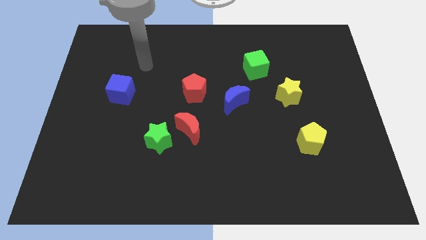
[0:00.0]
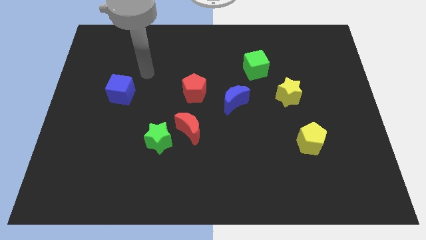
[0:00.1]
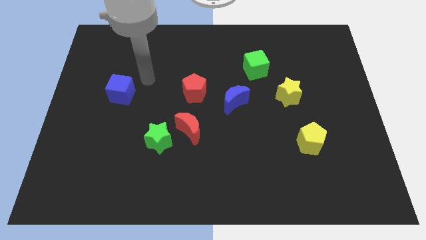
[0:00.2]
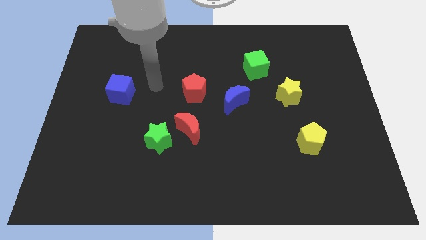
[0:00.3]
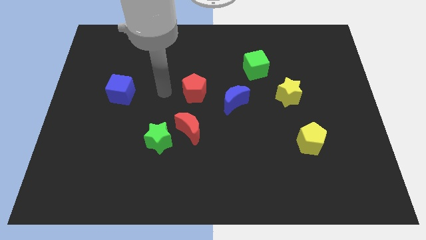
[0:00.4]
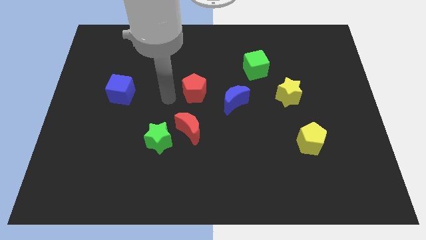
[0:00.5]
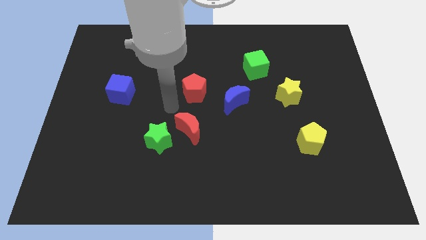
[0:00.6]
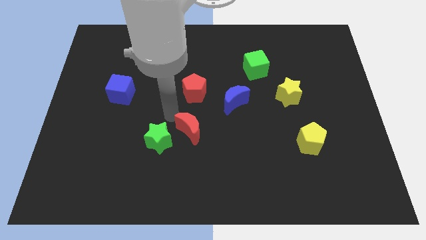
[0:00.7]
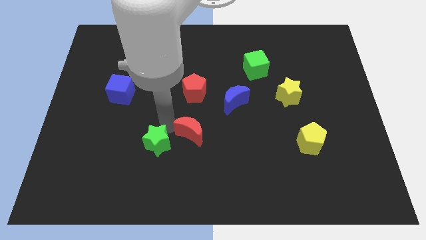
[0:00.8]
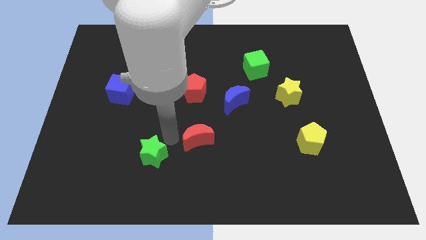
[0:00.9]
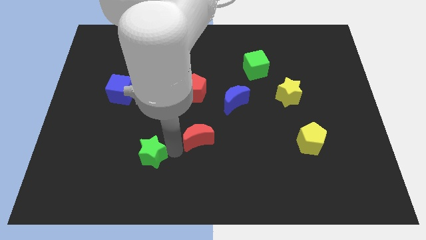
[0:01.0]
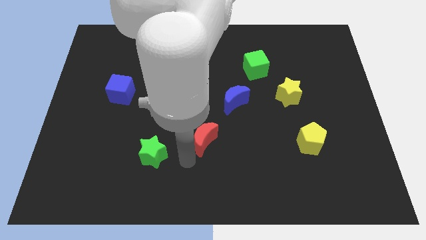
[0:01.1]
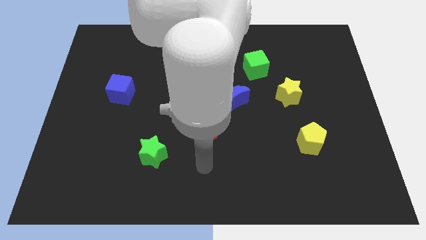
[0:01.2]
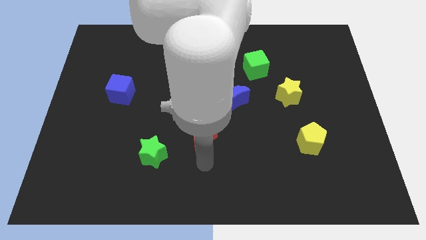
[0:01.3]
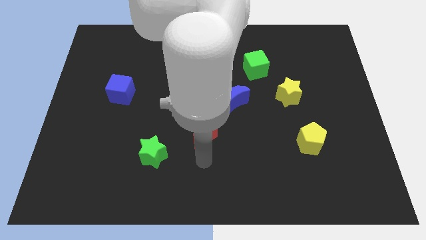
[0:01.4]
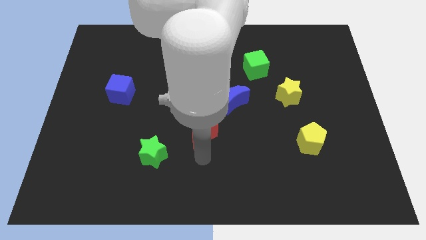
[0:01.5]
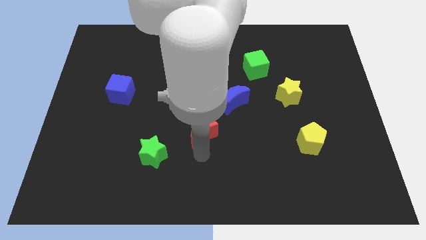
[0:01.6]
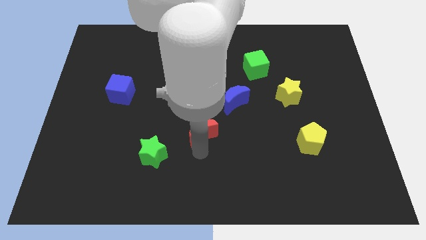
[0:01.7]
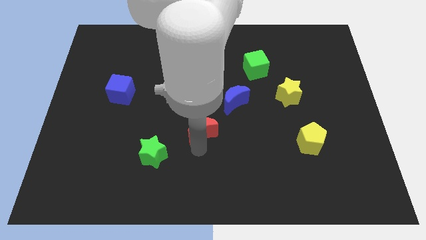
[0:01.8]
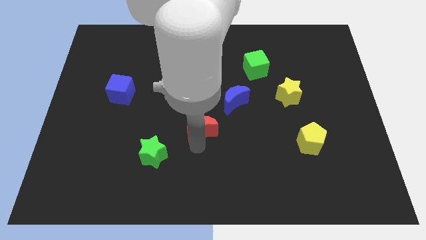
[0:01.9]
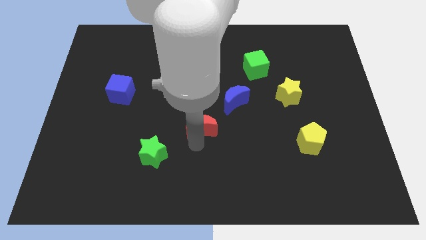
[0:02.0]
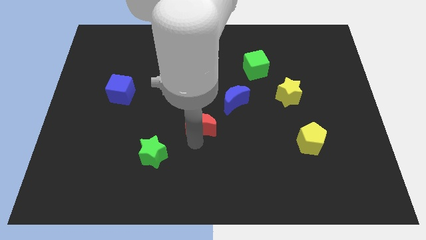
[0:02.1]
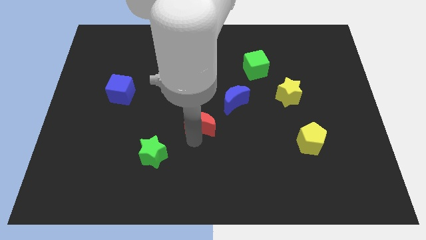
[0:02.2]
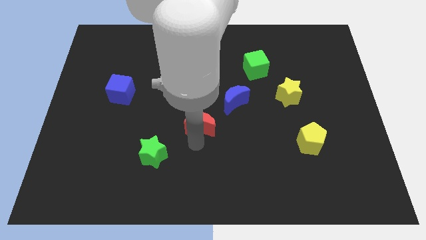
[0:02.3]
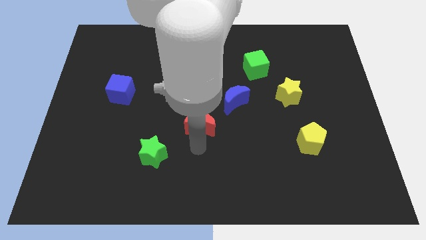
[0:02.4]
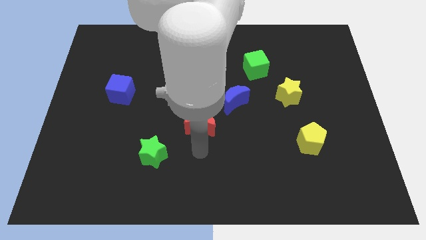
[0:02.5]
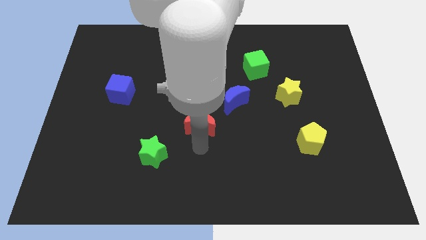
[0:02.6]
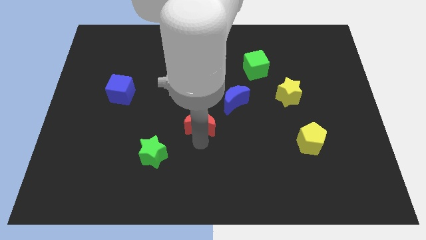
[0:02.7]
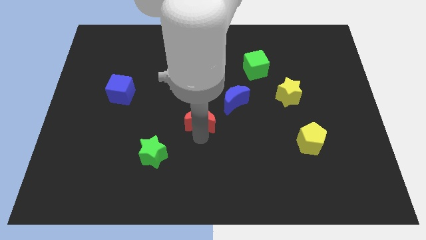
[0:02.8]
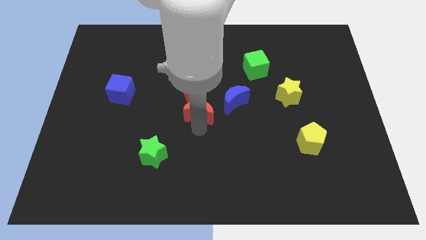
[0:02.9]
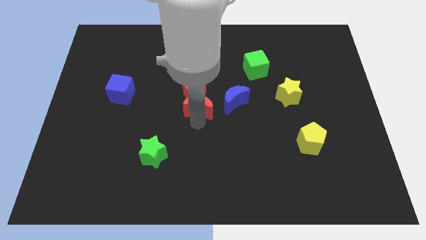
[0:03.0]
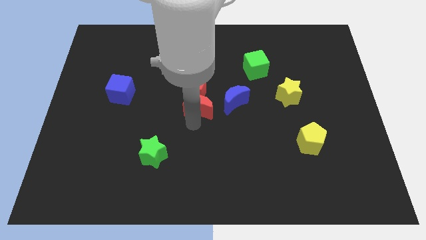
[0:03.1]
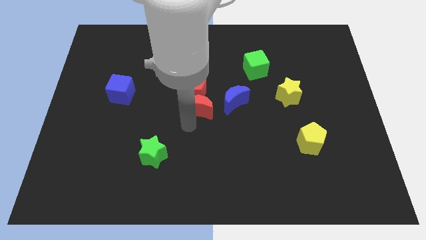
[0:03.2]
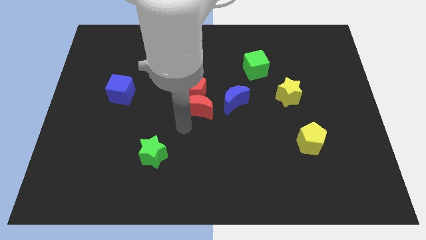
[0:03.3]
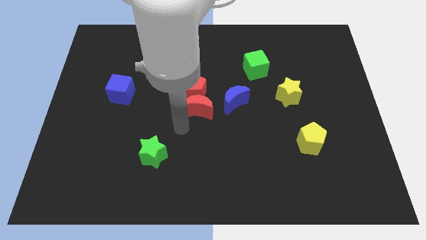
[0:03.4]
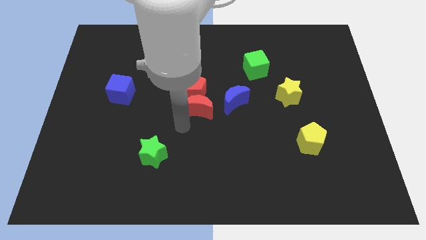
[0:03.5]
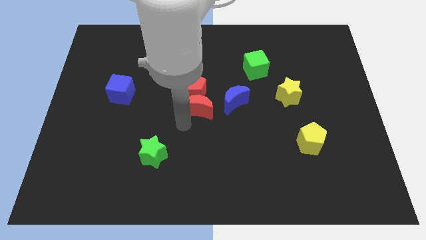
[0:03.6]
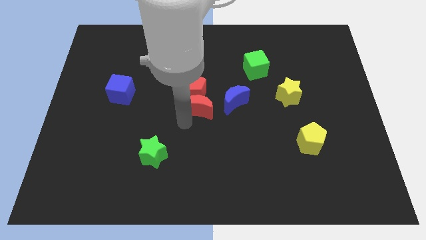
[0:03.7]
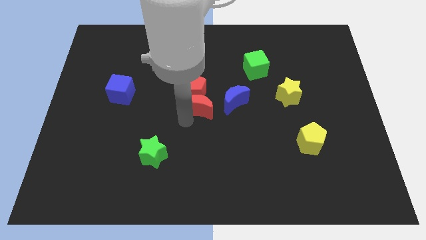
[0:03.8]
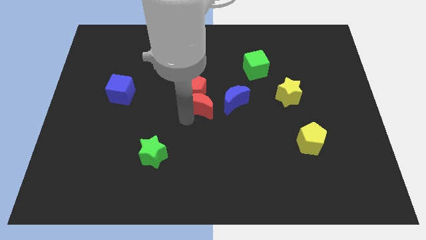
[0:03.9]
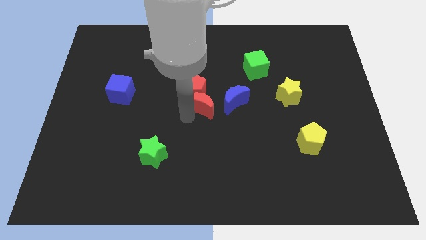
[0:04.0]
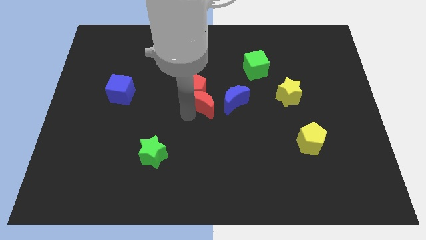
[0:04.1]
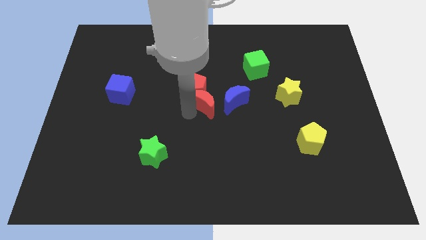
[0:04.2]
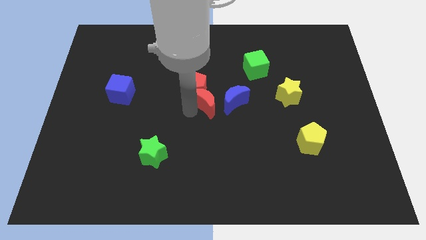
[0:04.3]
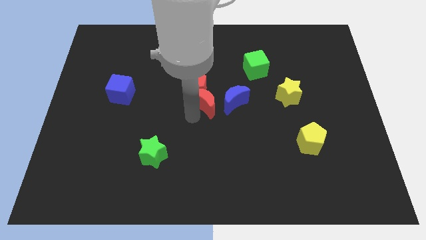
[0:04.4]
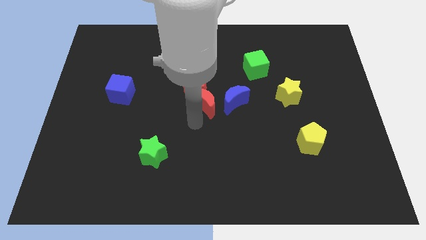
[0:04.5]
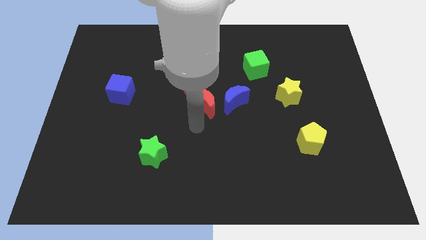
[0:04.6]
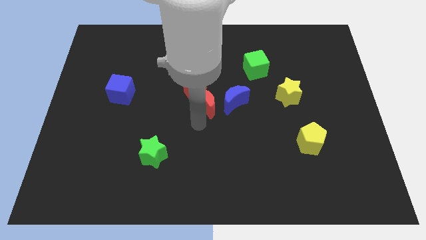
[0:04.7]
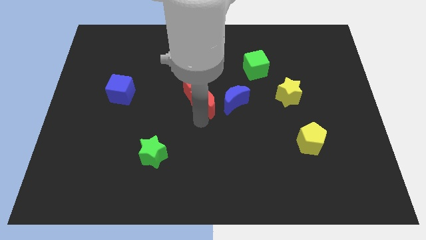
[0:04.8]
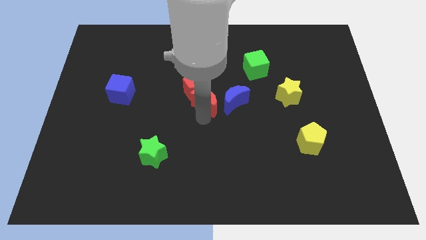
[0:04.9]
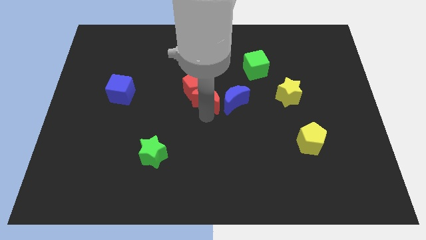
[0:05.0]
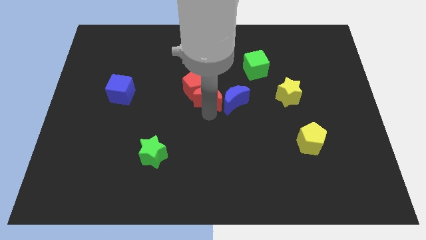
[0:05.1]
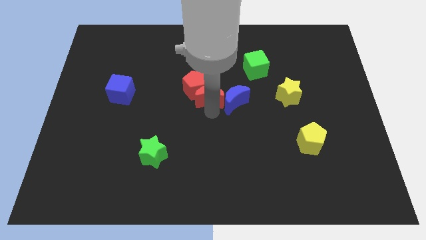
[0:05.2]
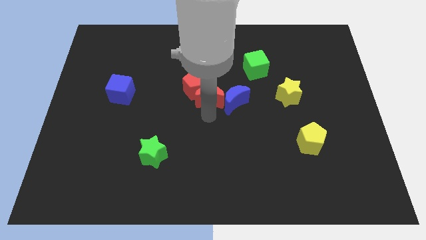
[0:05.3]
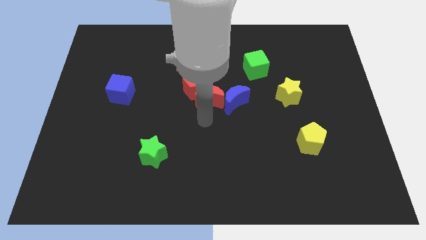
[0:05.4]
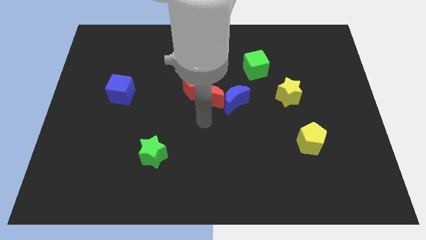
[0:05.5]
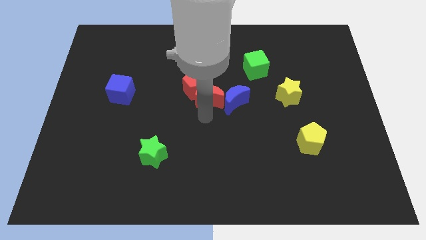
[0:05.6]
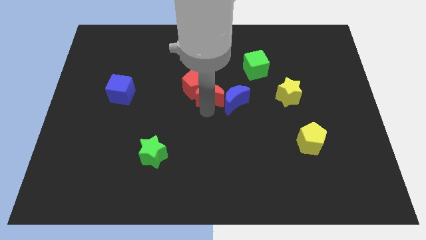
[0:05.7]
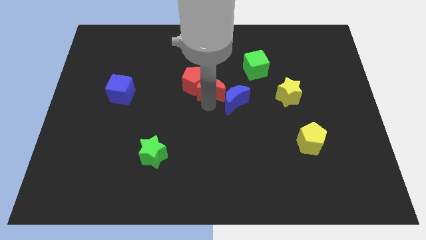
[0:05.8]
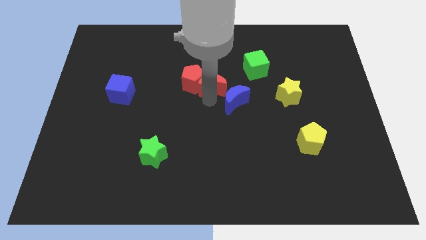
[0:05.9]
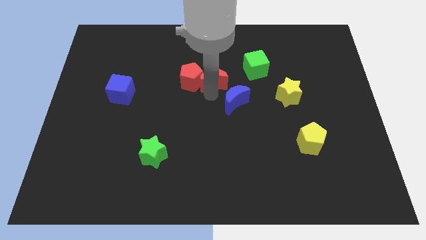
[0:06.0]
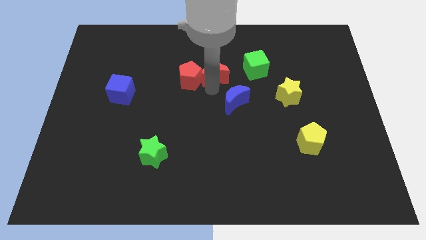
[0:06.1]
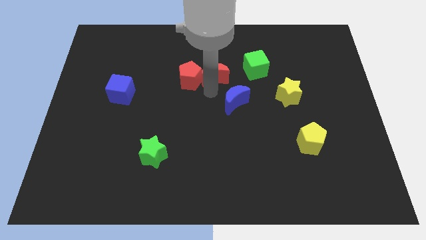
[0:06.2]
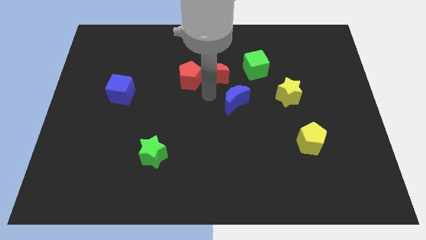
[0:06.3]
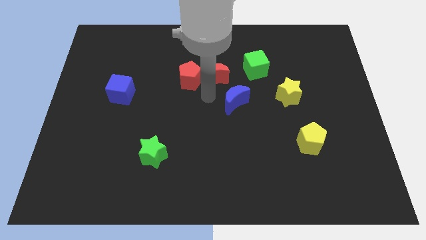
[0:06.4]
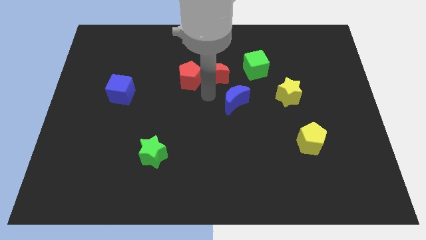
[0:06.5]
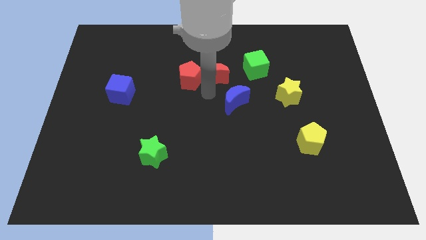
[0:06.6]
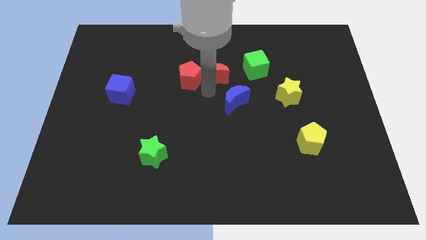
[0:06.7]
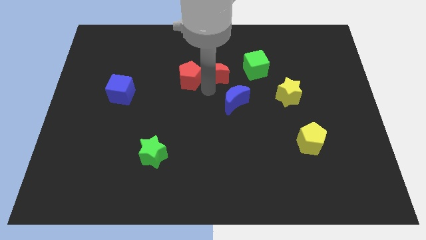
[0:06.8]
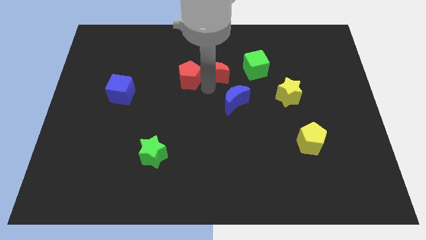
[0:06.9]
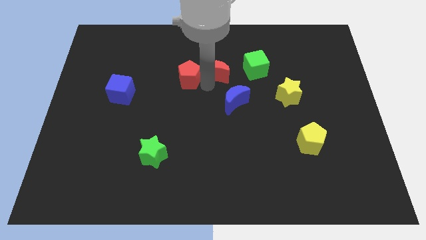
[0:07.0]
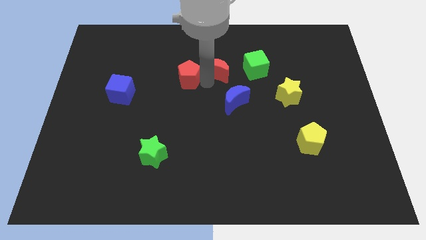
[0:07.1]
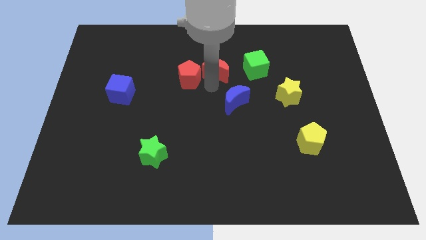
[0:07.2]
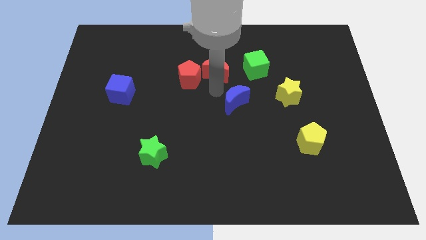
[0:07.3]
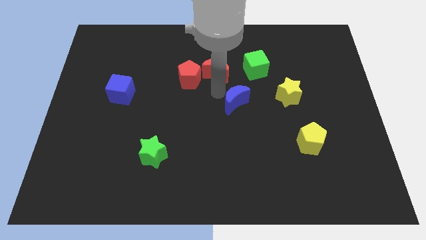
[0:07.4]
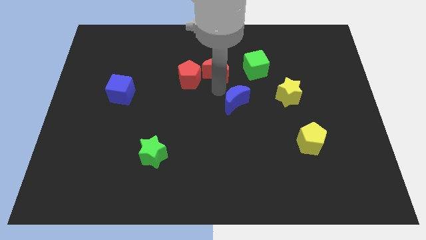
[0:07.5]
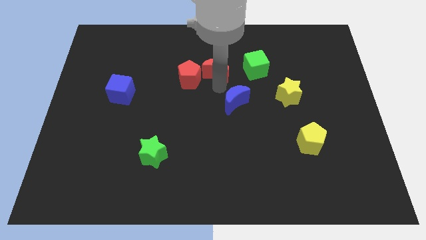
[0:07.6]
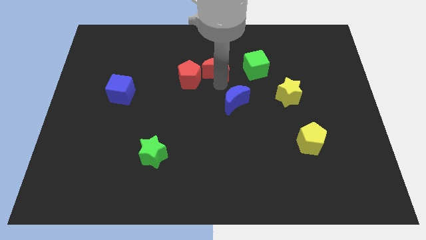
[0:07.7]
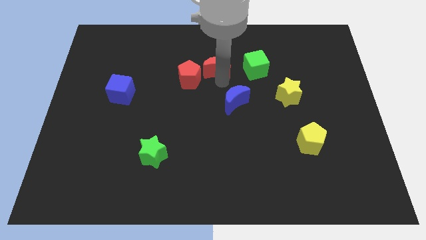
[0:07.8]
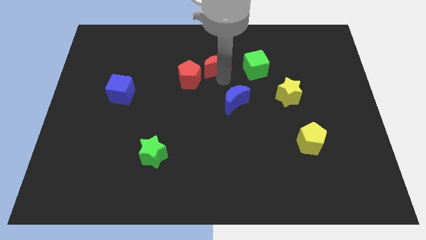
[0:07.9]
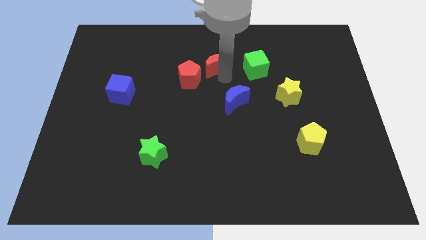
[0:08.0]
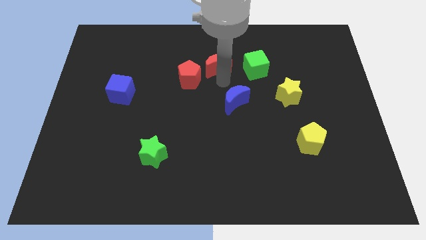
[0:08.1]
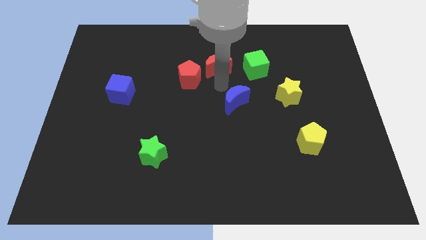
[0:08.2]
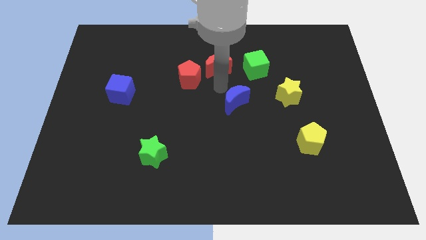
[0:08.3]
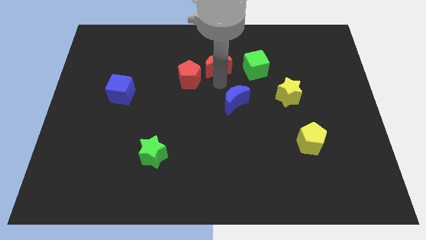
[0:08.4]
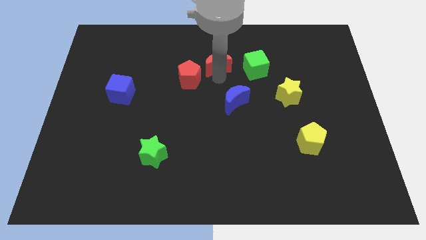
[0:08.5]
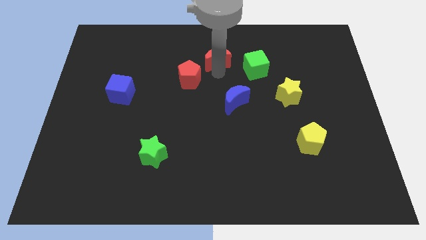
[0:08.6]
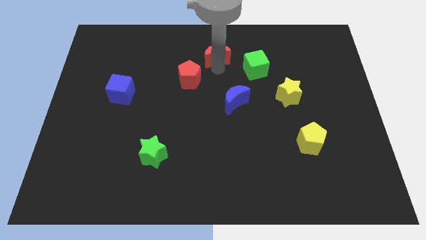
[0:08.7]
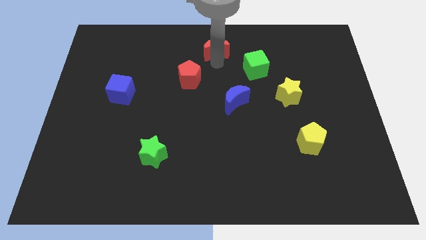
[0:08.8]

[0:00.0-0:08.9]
slide the red moon to the top side
